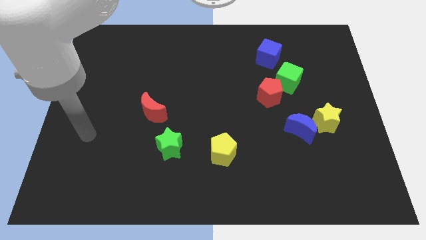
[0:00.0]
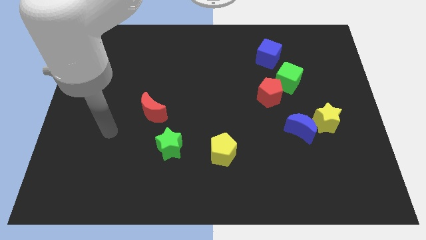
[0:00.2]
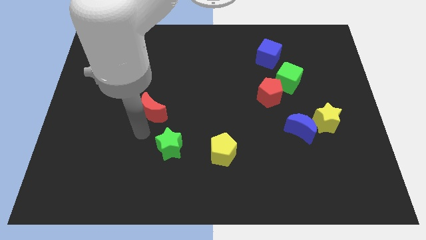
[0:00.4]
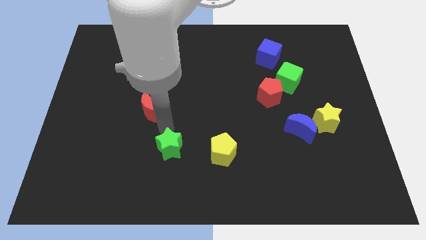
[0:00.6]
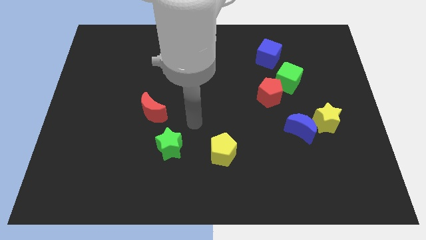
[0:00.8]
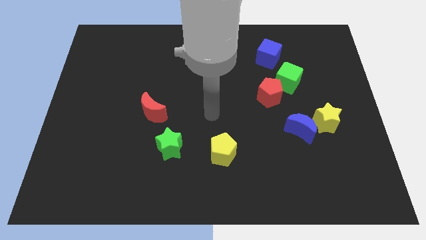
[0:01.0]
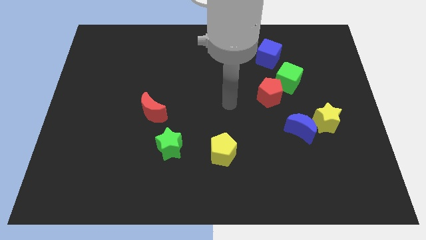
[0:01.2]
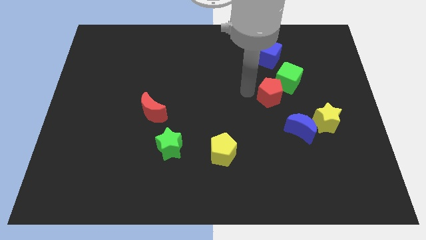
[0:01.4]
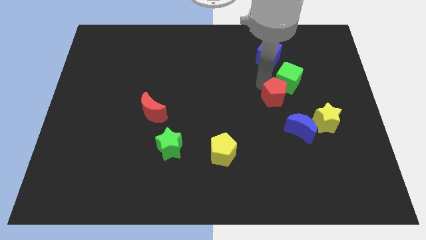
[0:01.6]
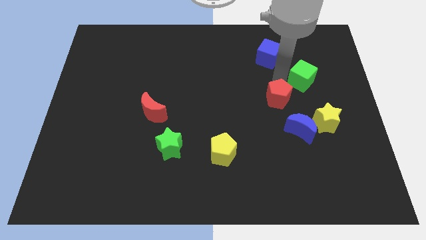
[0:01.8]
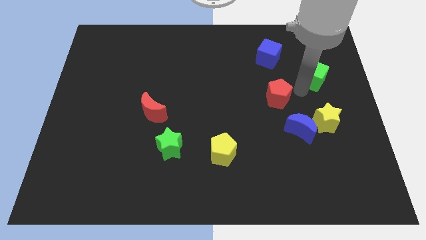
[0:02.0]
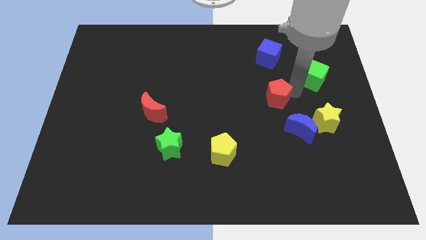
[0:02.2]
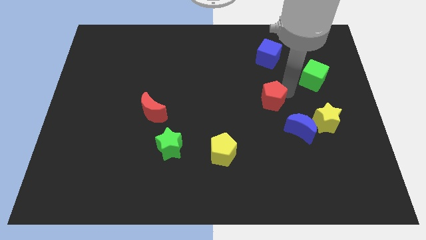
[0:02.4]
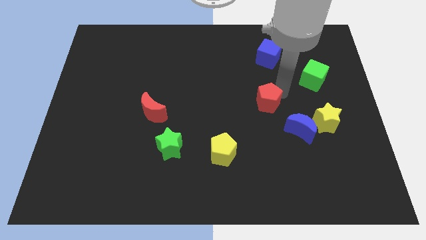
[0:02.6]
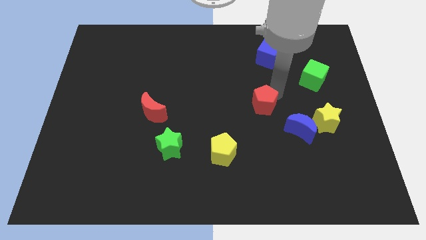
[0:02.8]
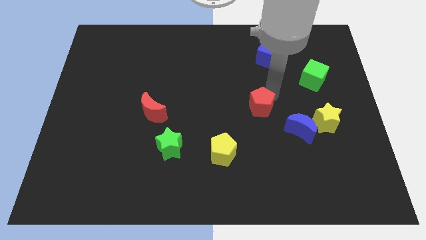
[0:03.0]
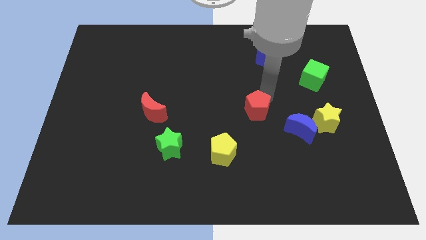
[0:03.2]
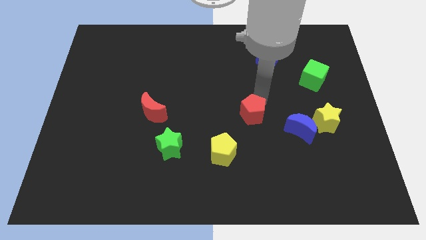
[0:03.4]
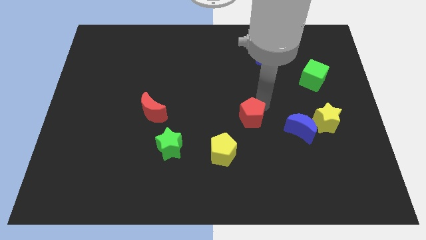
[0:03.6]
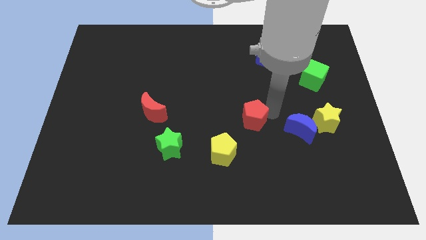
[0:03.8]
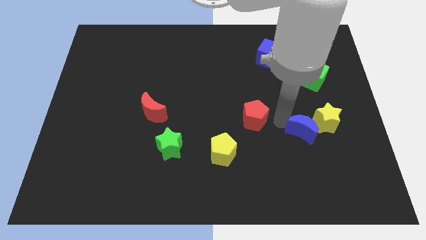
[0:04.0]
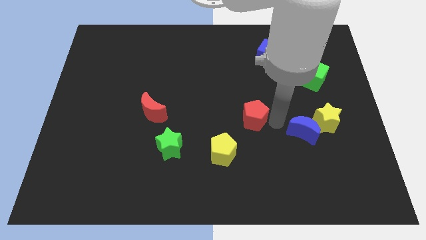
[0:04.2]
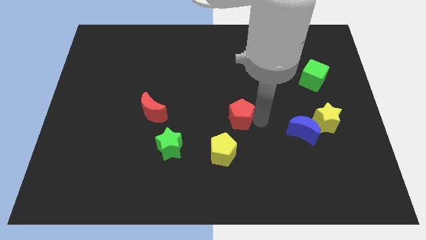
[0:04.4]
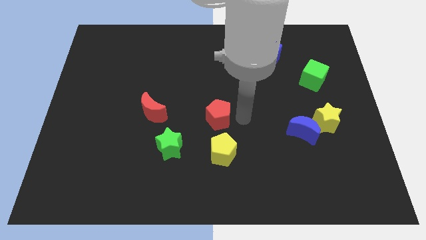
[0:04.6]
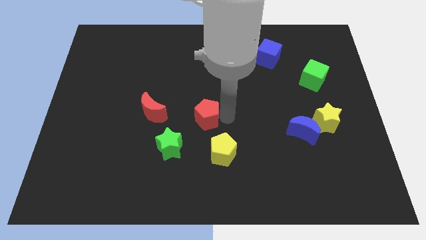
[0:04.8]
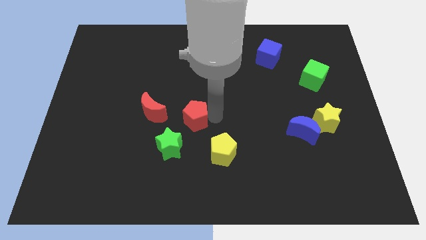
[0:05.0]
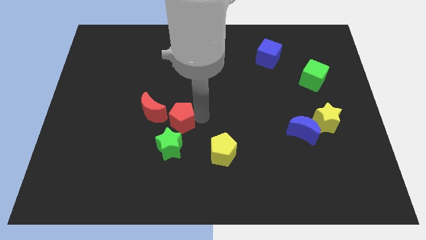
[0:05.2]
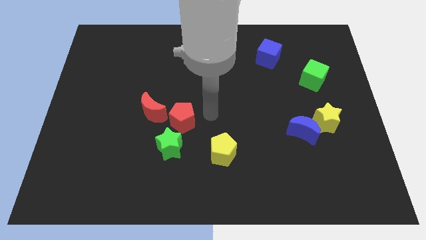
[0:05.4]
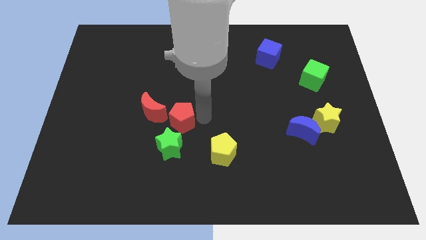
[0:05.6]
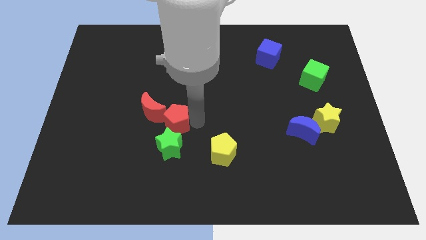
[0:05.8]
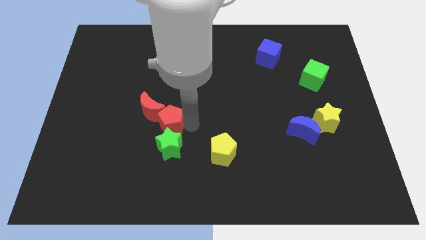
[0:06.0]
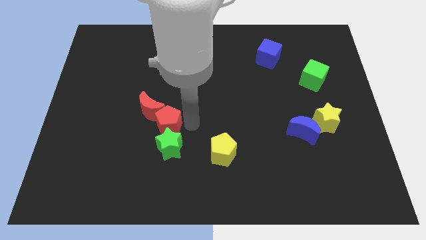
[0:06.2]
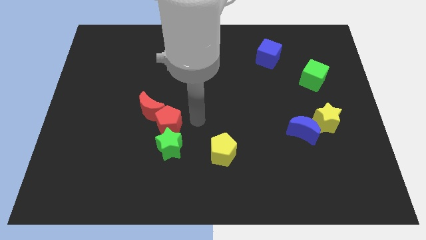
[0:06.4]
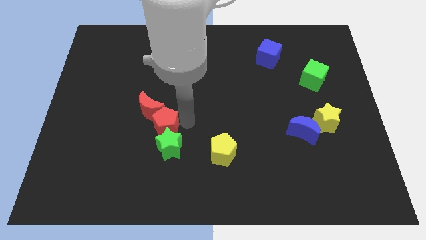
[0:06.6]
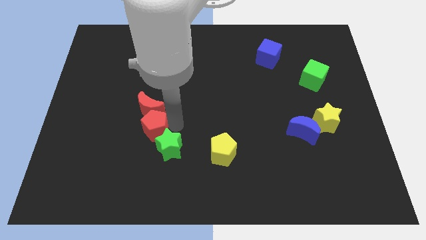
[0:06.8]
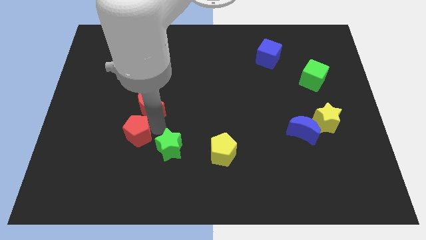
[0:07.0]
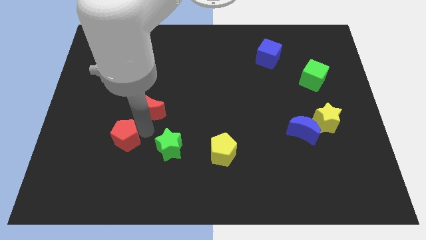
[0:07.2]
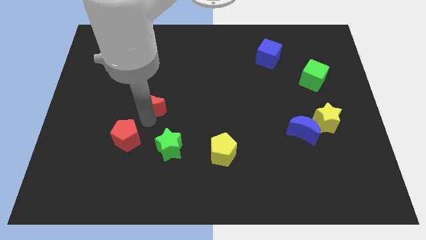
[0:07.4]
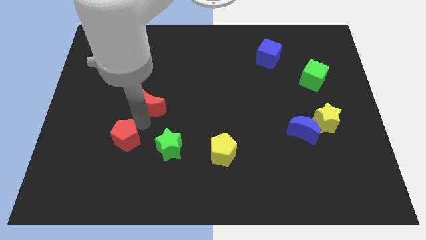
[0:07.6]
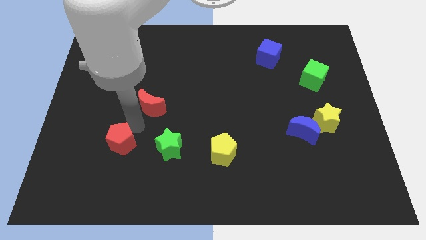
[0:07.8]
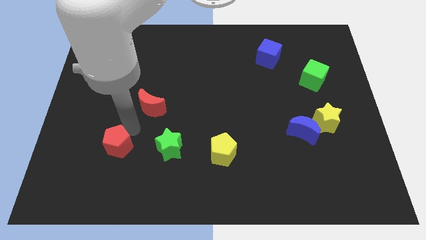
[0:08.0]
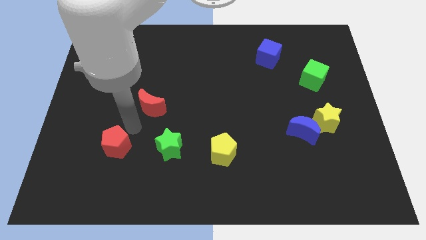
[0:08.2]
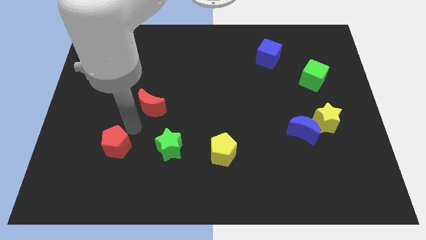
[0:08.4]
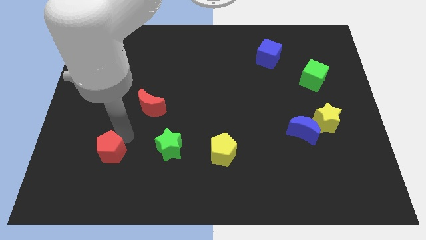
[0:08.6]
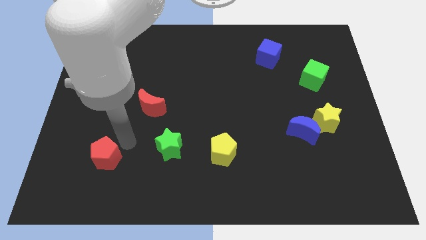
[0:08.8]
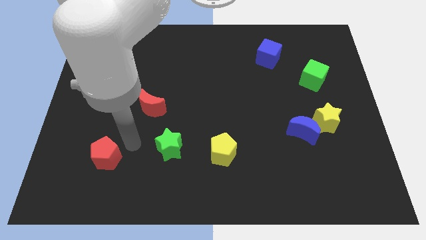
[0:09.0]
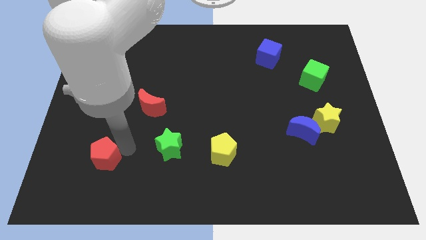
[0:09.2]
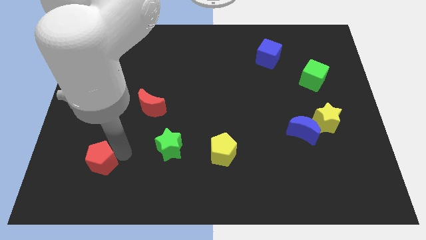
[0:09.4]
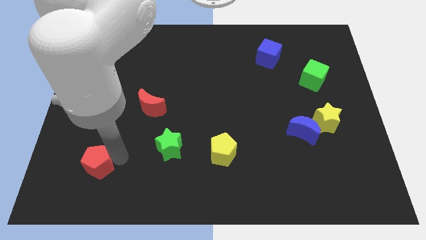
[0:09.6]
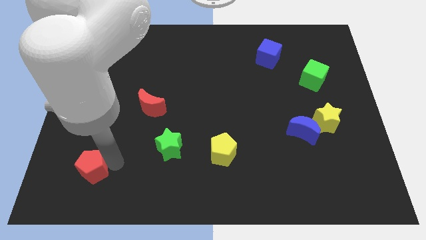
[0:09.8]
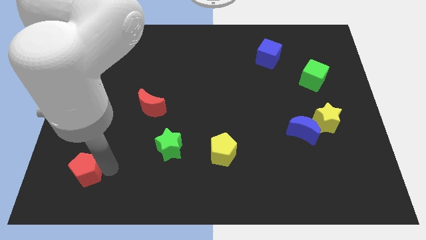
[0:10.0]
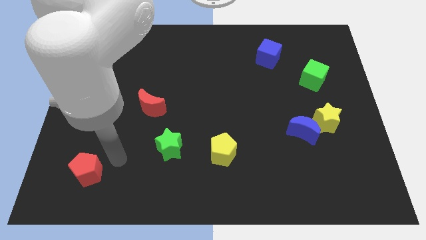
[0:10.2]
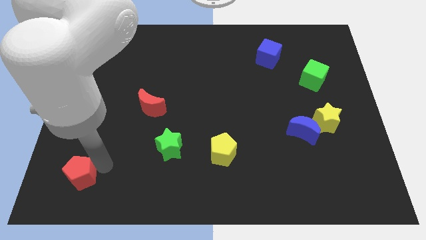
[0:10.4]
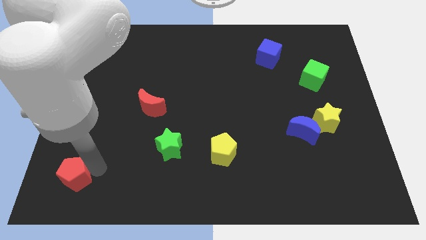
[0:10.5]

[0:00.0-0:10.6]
put the red pentagon to the lower left corner
